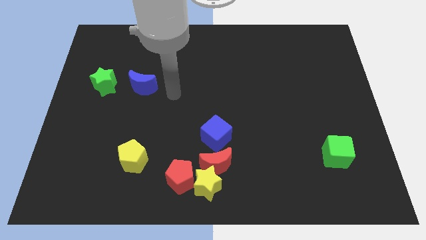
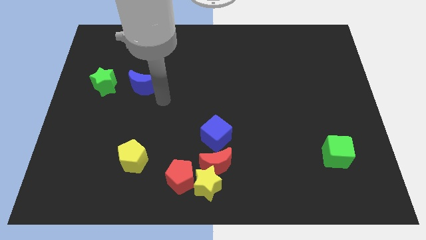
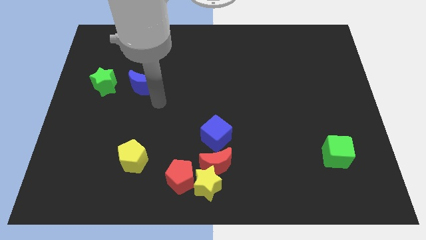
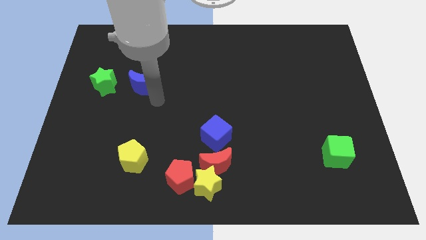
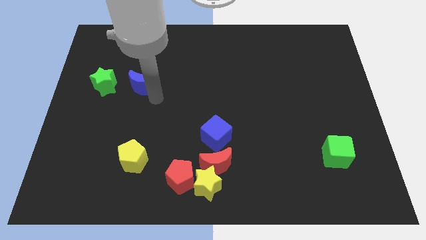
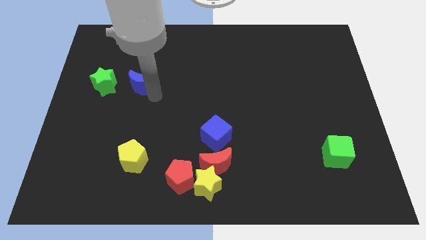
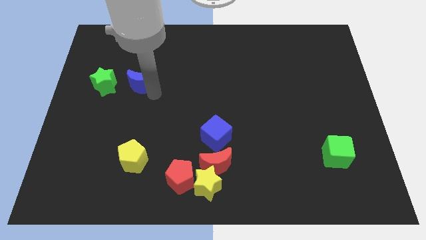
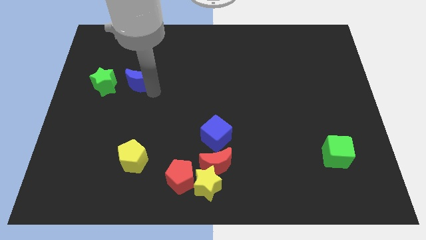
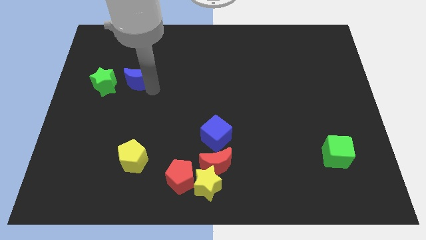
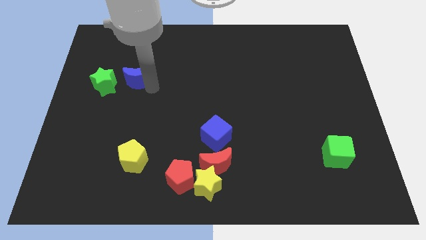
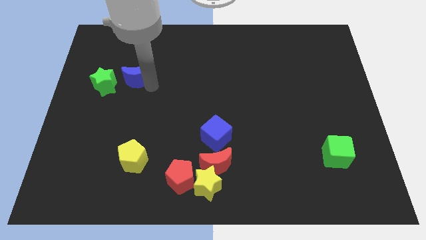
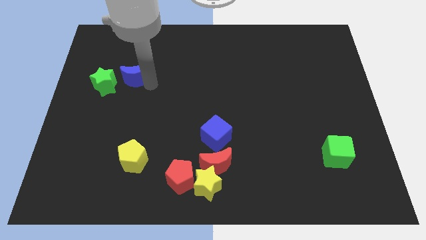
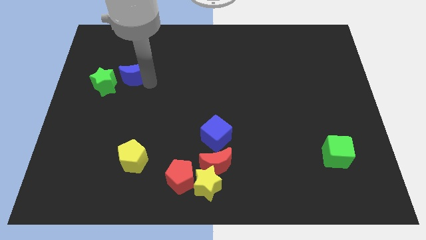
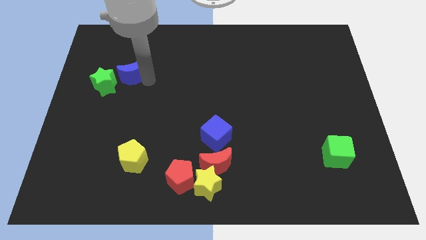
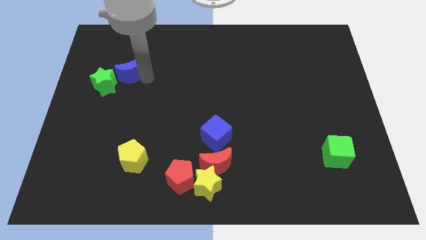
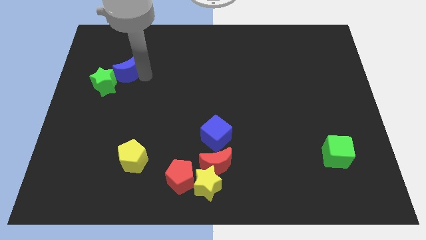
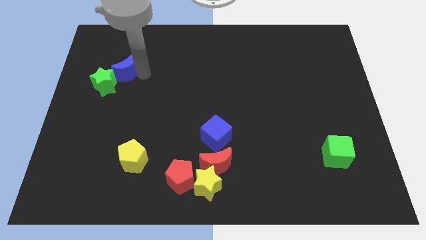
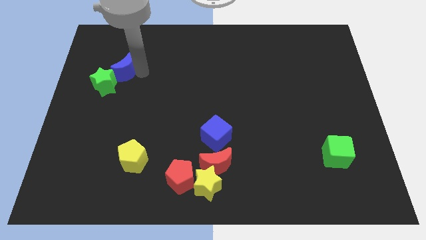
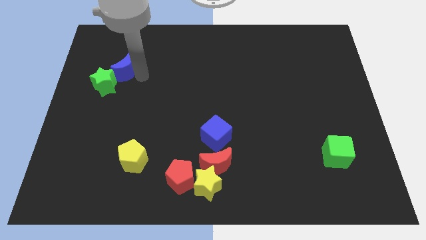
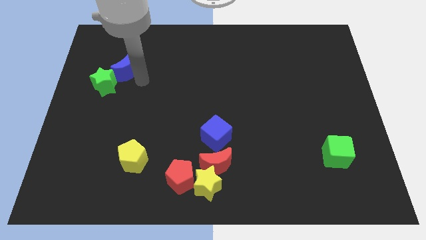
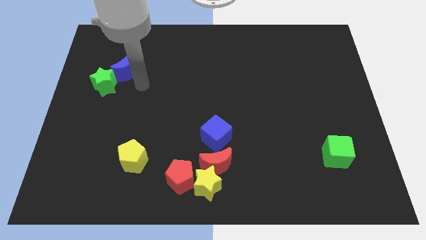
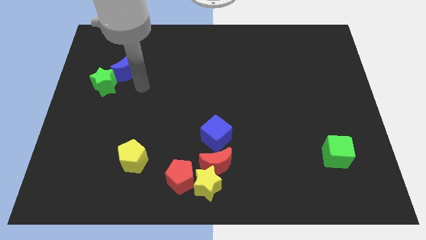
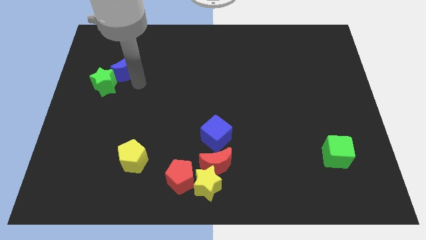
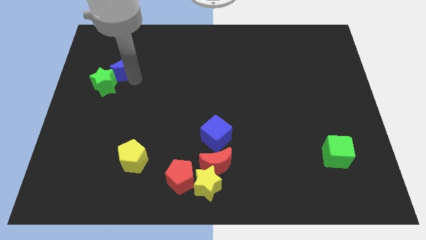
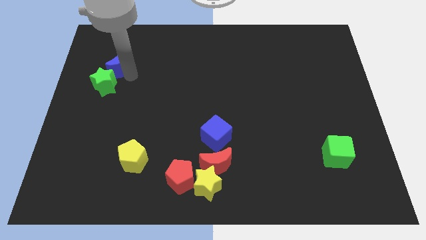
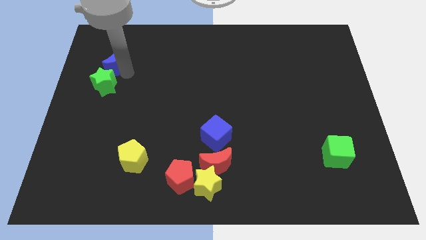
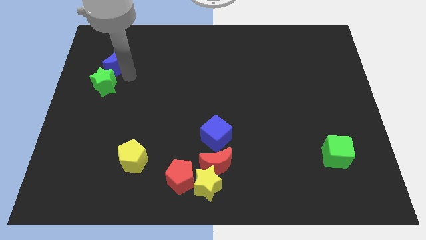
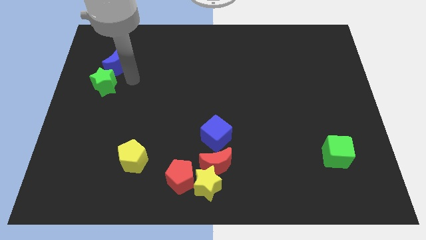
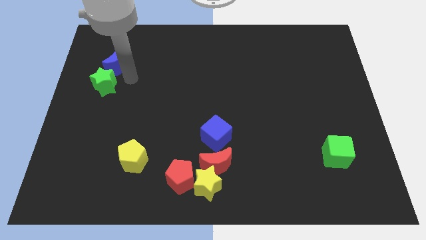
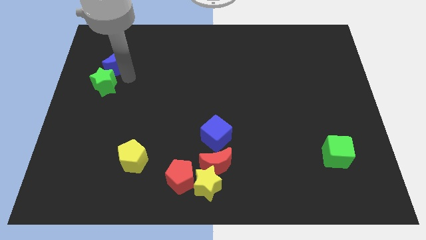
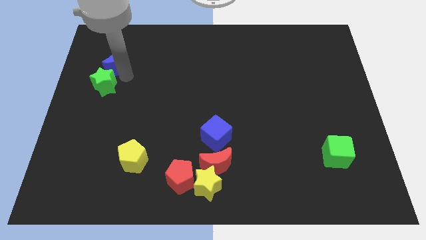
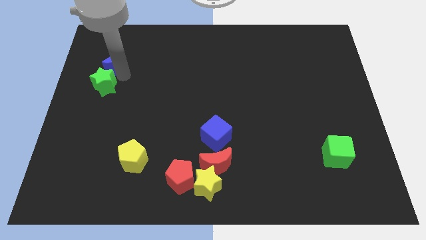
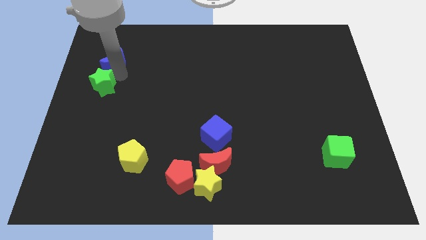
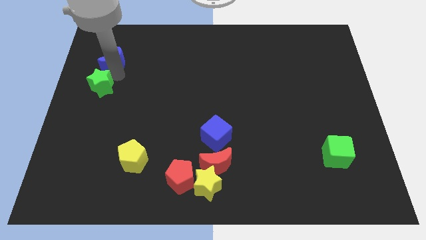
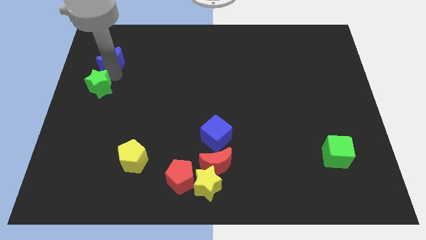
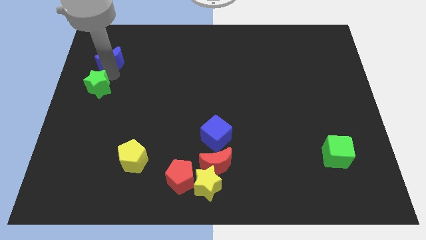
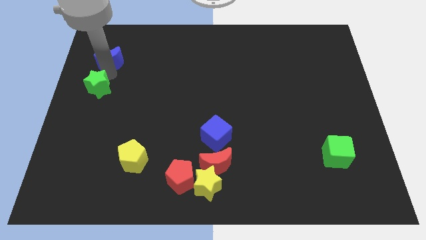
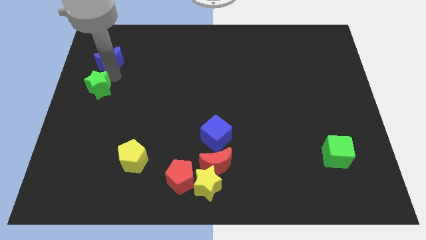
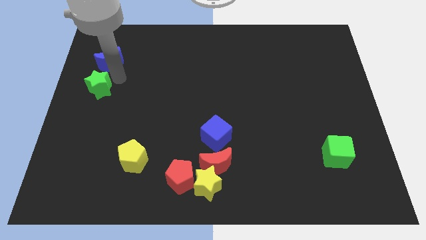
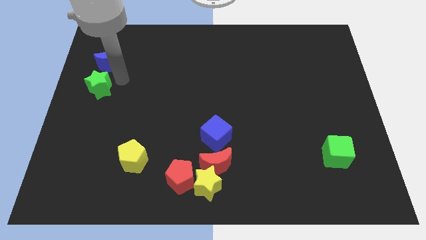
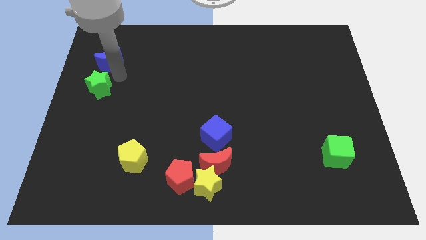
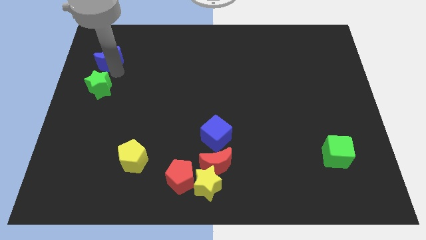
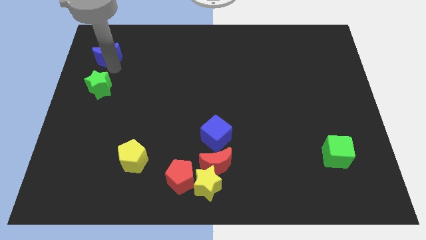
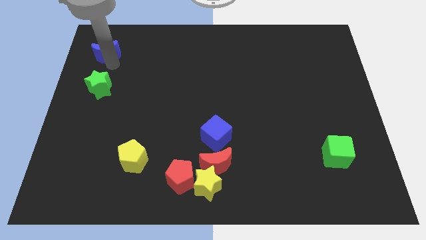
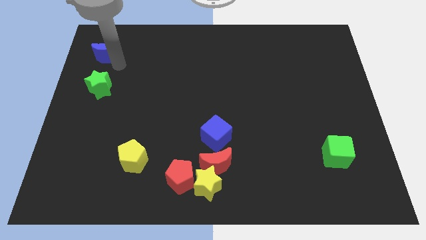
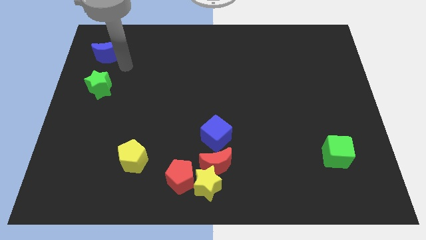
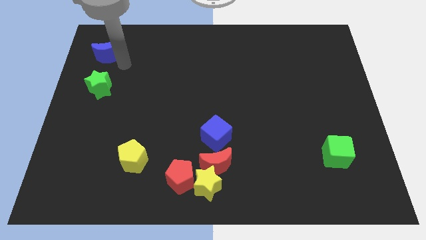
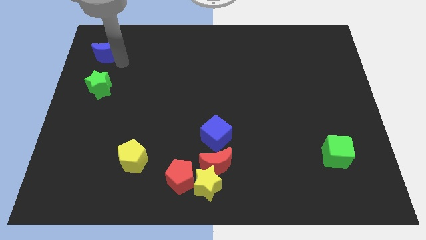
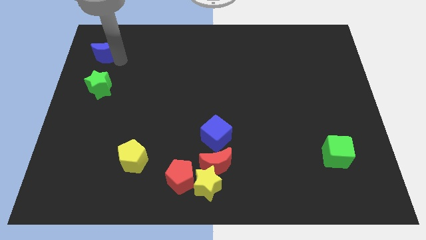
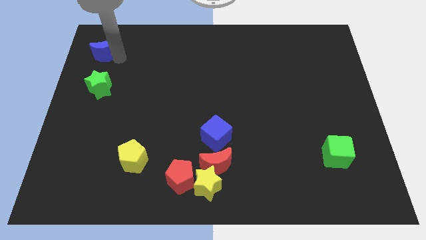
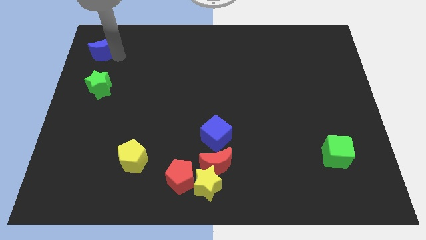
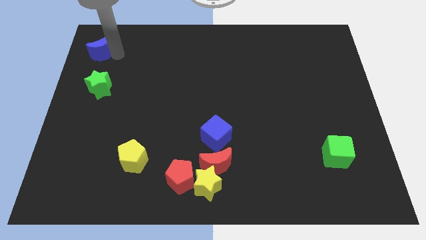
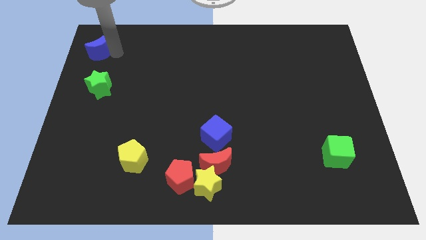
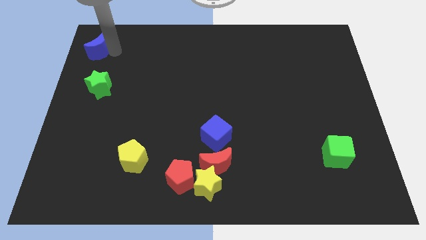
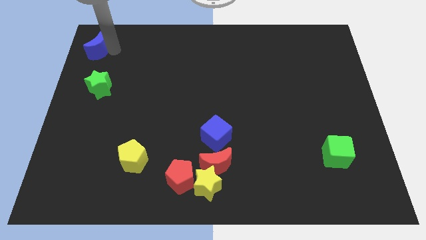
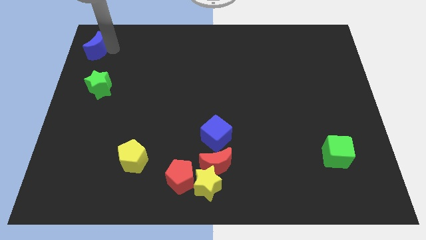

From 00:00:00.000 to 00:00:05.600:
move the blue moon to the top left

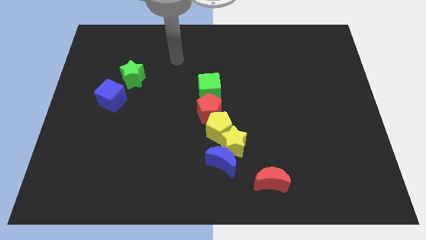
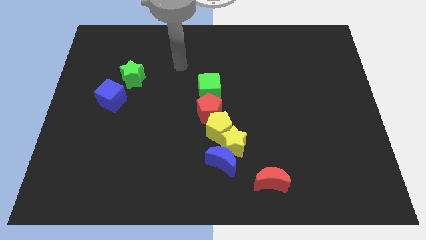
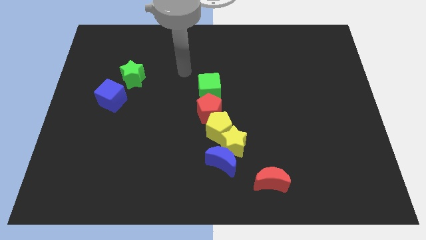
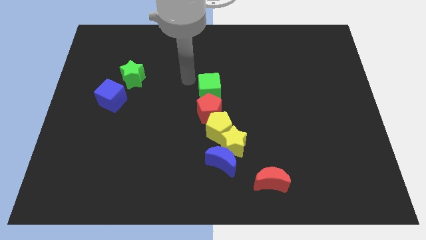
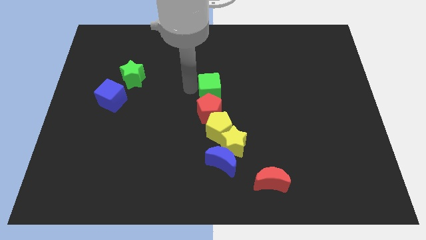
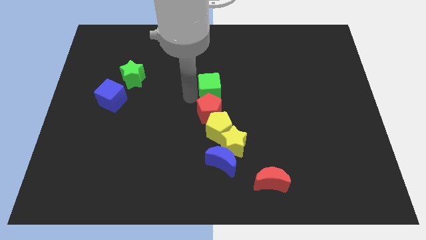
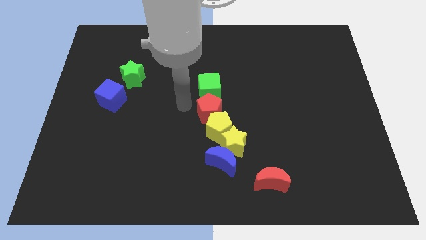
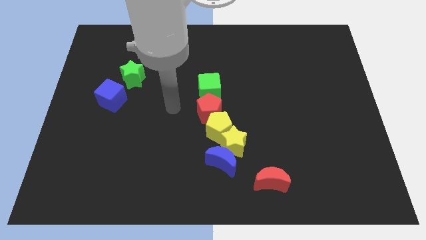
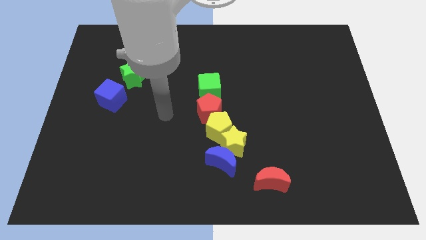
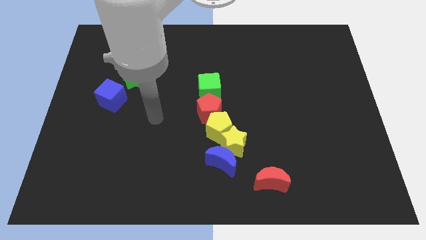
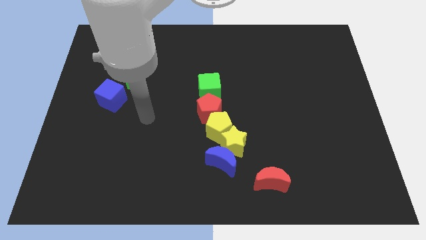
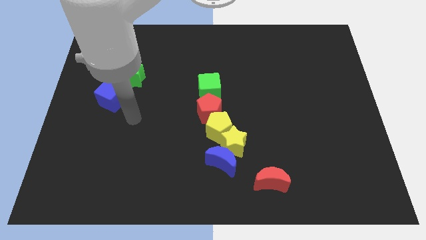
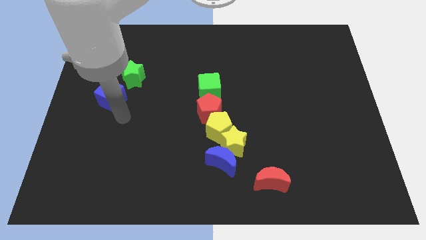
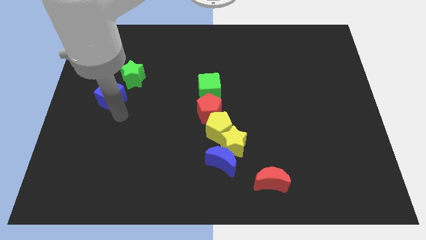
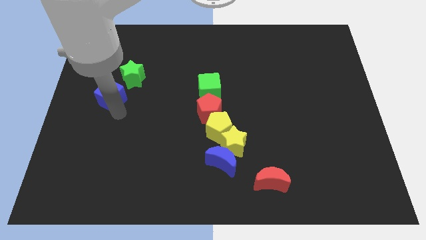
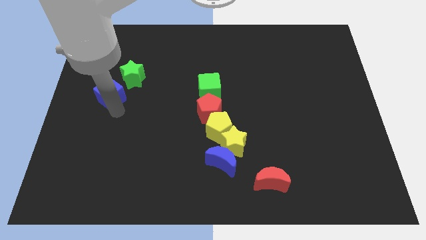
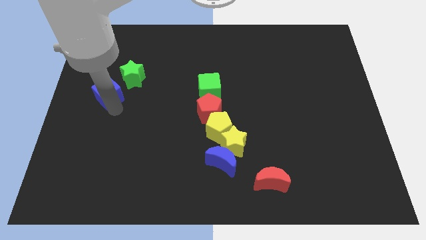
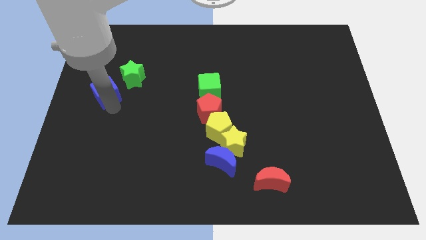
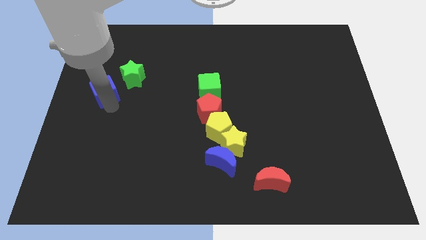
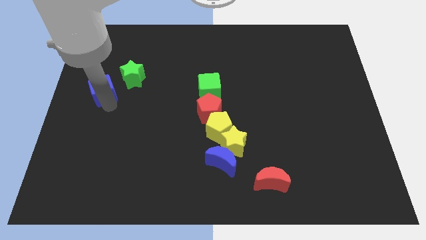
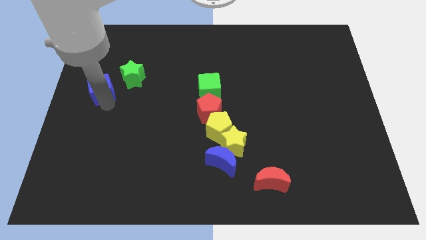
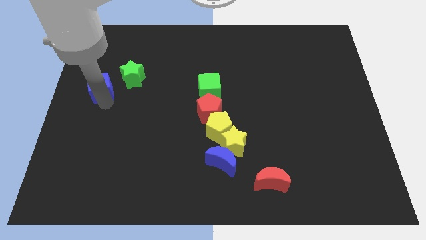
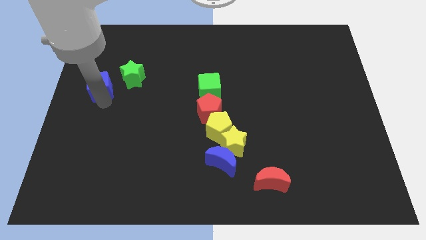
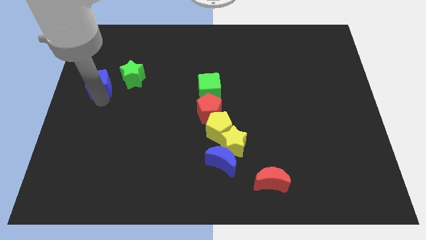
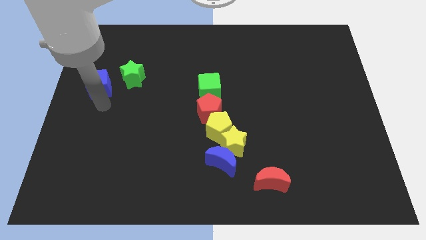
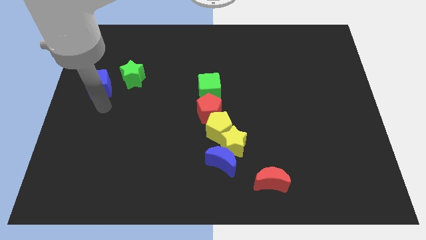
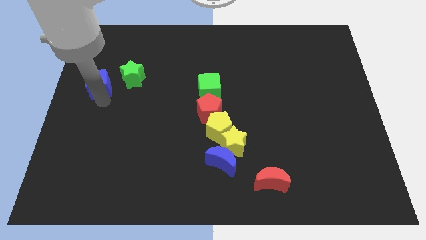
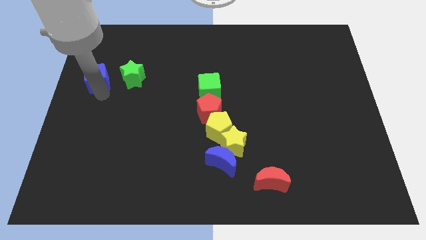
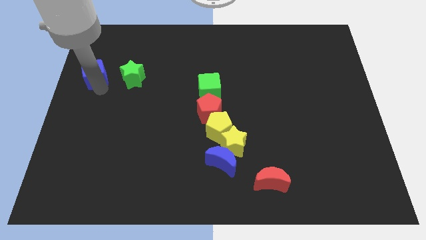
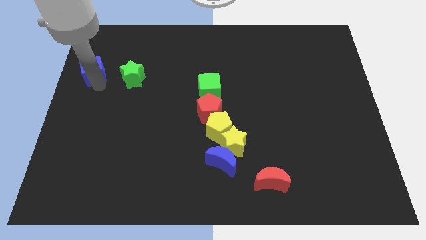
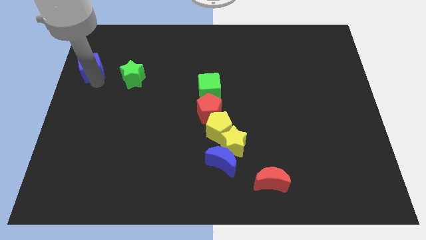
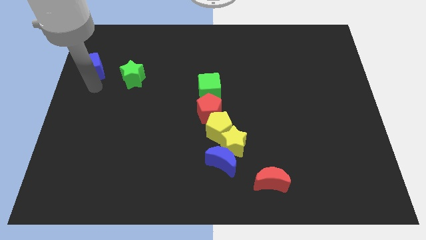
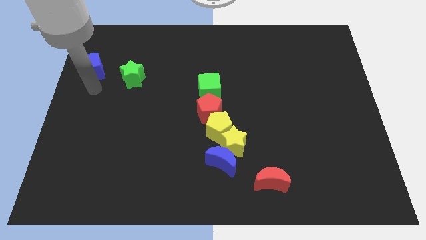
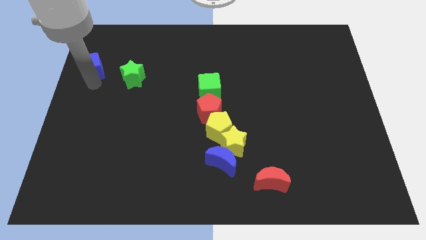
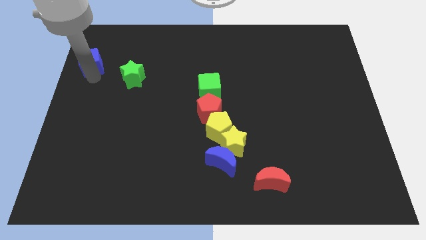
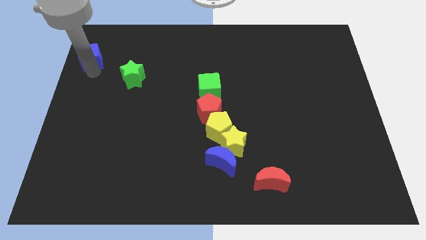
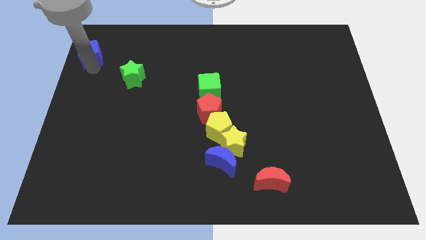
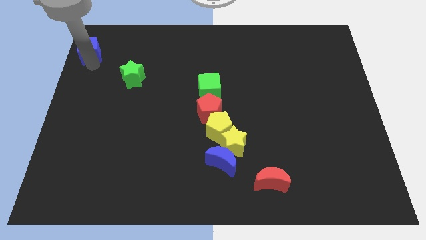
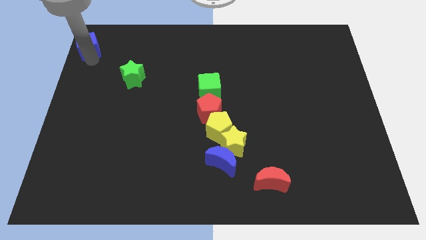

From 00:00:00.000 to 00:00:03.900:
put the blue cube to the top left of the board
